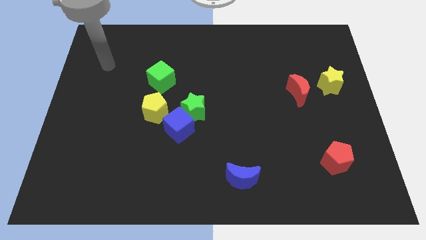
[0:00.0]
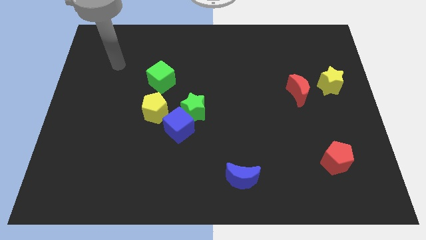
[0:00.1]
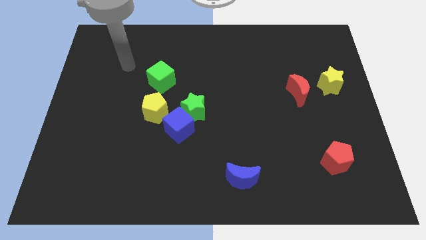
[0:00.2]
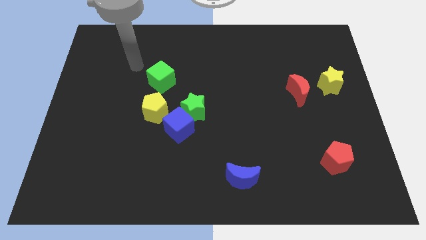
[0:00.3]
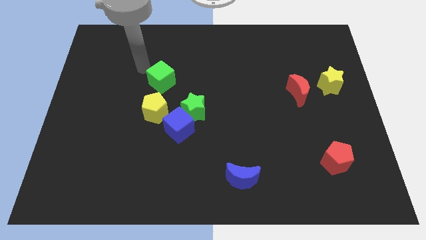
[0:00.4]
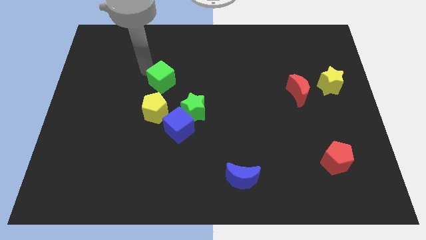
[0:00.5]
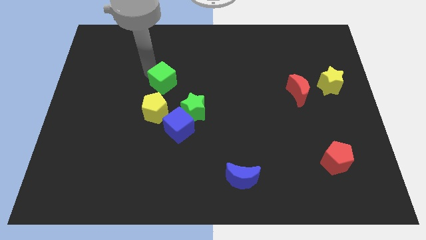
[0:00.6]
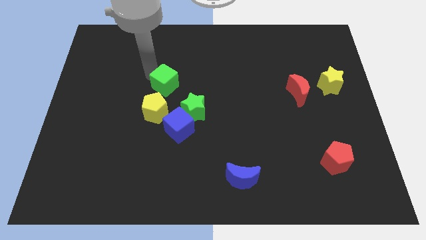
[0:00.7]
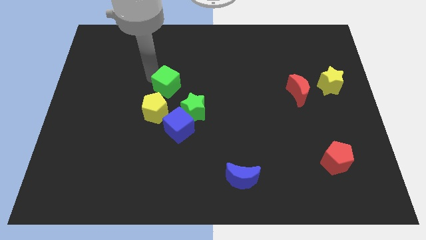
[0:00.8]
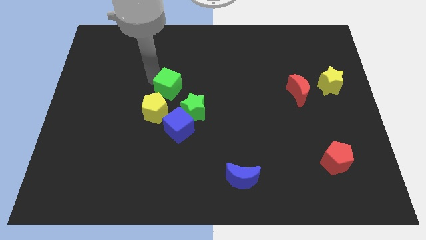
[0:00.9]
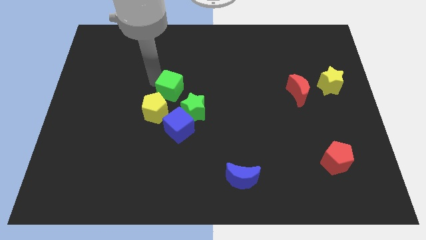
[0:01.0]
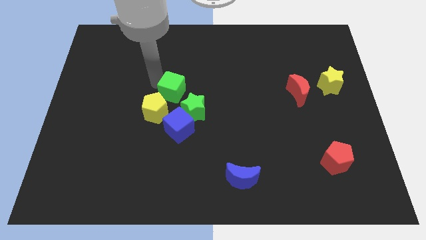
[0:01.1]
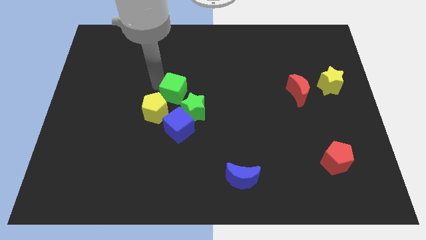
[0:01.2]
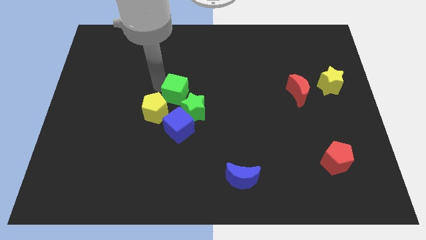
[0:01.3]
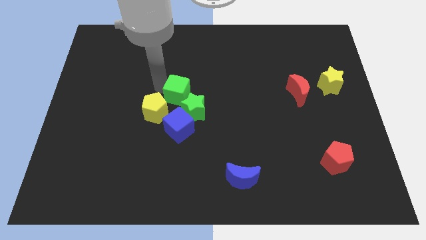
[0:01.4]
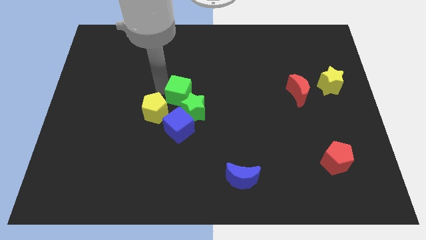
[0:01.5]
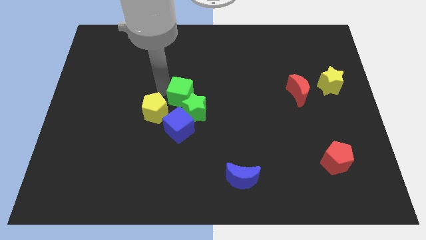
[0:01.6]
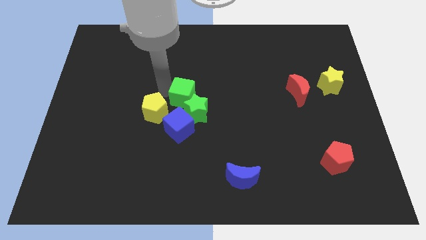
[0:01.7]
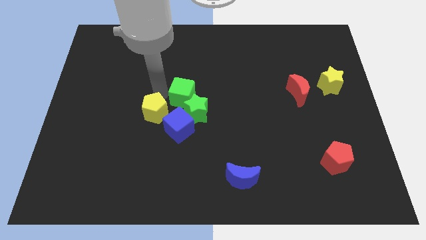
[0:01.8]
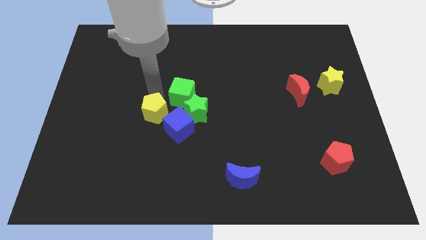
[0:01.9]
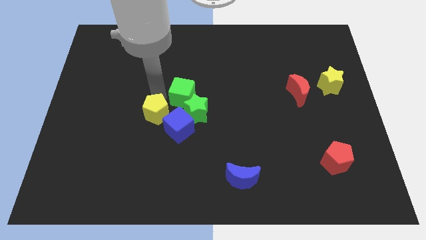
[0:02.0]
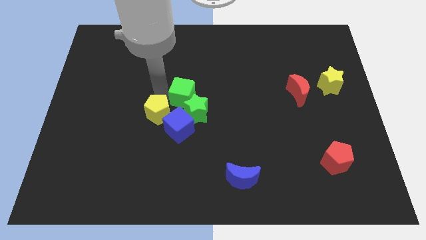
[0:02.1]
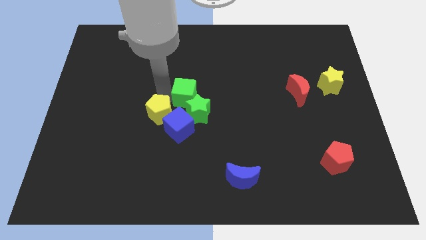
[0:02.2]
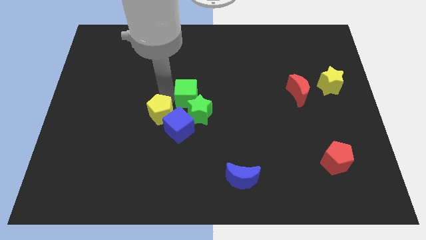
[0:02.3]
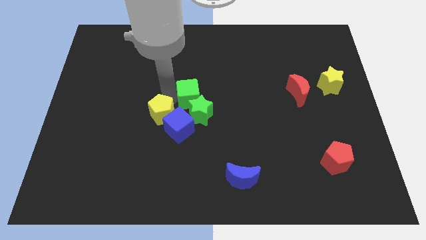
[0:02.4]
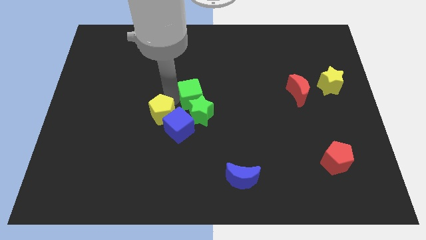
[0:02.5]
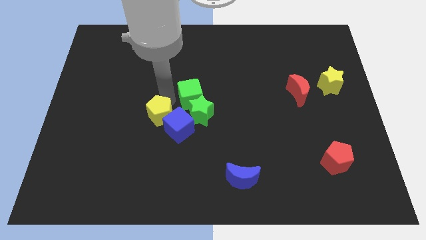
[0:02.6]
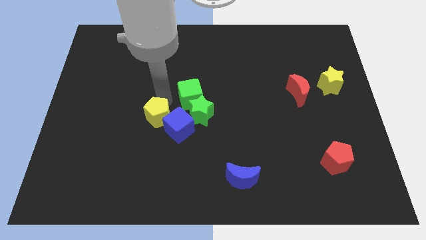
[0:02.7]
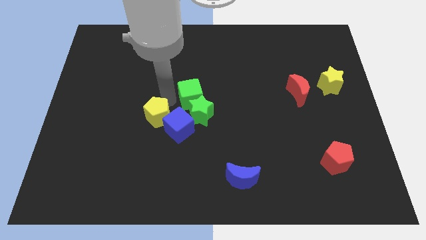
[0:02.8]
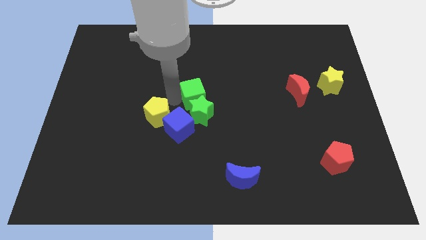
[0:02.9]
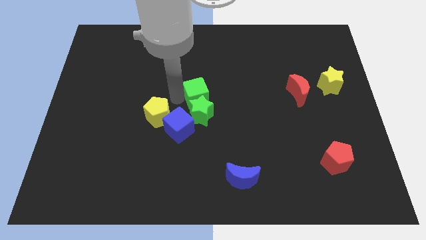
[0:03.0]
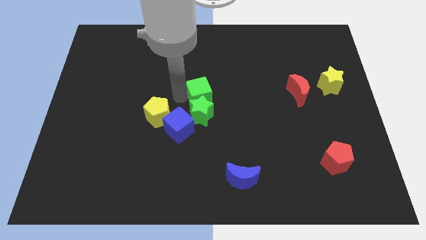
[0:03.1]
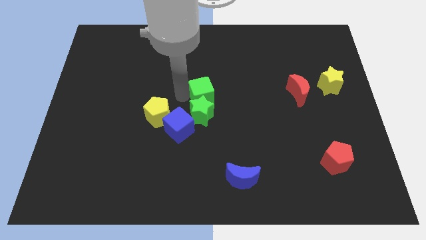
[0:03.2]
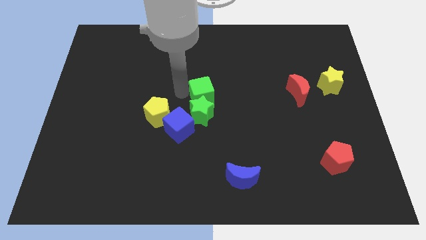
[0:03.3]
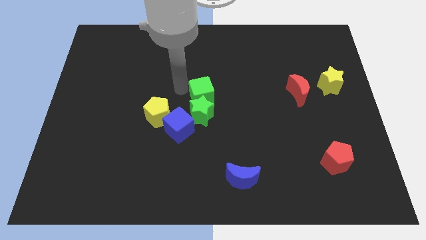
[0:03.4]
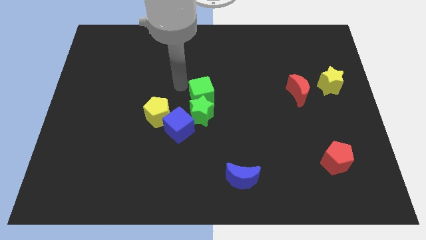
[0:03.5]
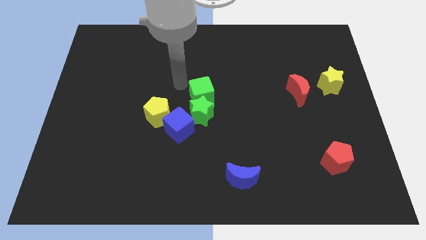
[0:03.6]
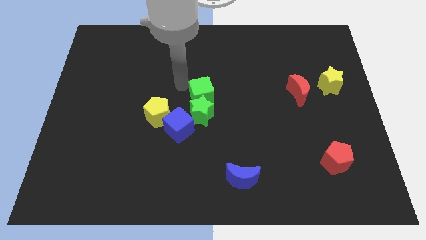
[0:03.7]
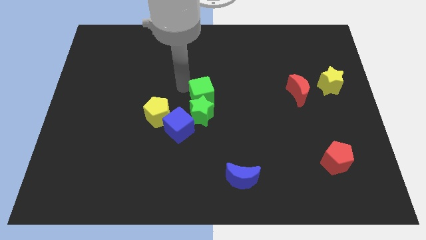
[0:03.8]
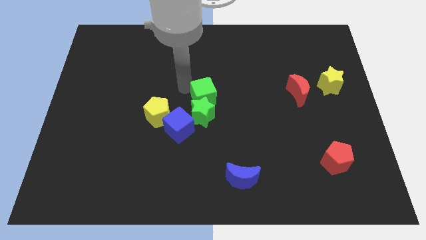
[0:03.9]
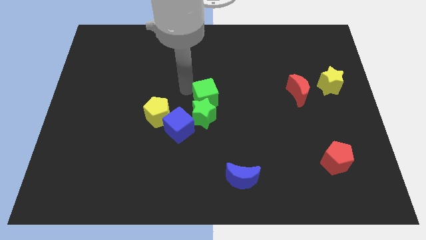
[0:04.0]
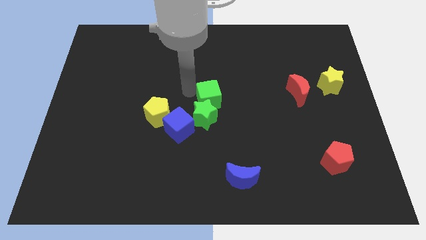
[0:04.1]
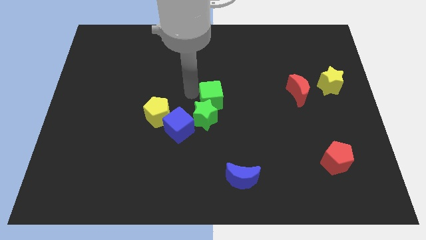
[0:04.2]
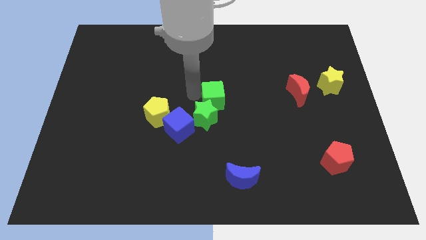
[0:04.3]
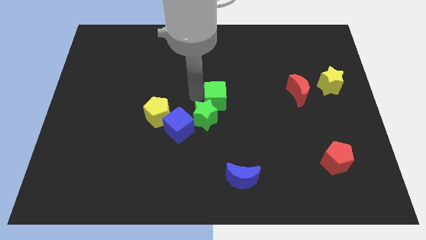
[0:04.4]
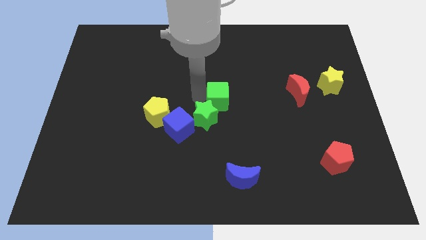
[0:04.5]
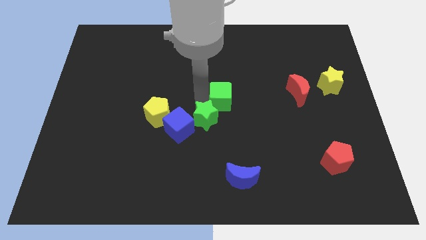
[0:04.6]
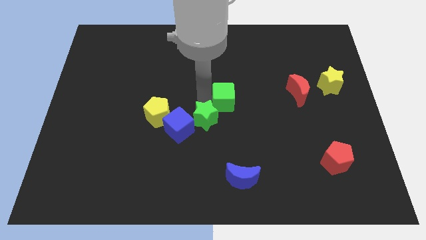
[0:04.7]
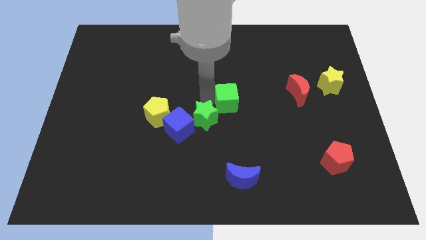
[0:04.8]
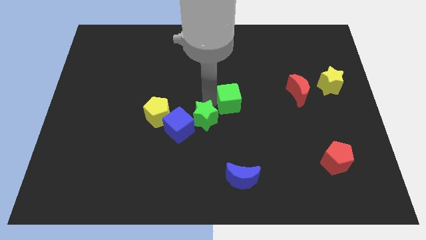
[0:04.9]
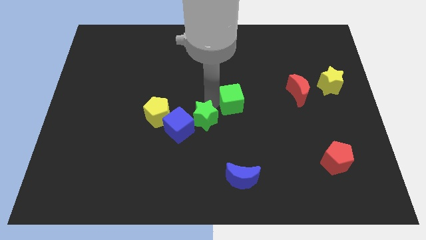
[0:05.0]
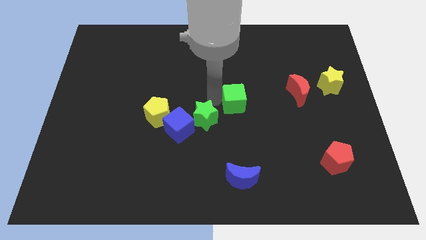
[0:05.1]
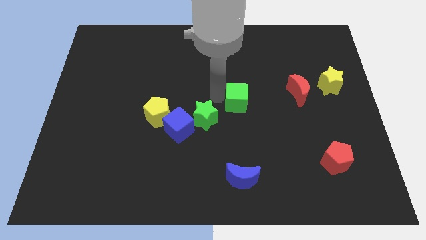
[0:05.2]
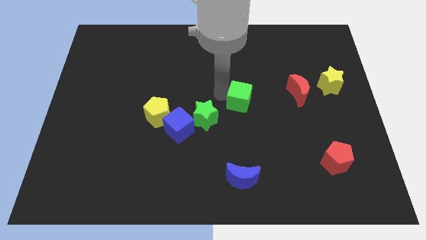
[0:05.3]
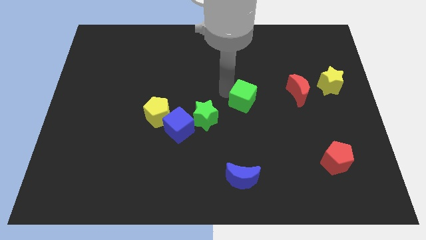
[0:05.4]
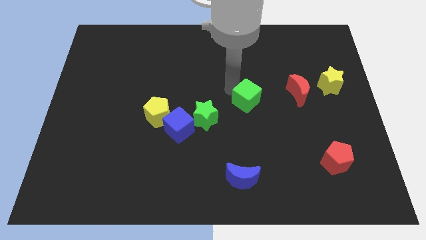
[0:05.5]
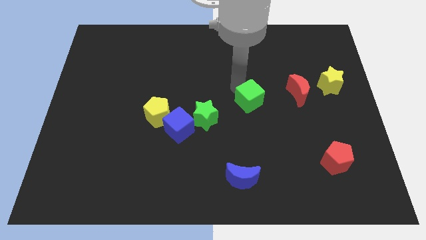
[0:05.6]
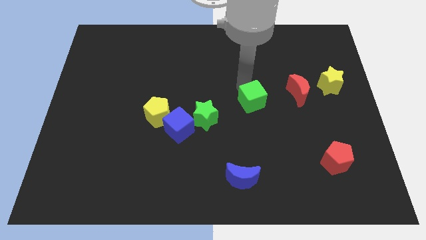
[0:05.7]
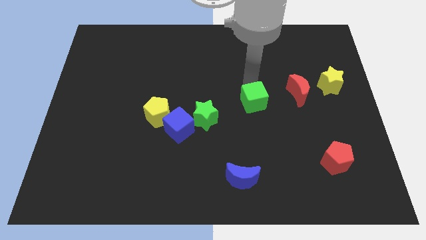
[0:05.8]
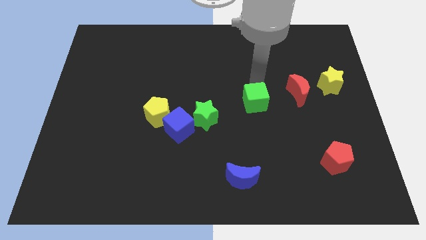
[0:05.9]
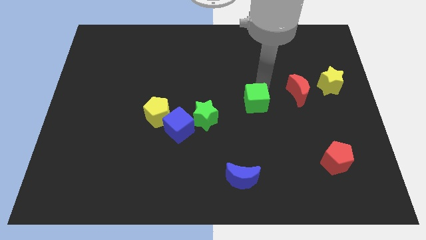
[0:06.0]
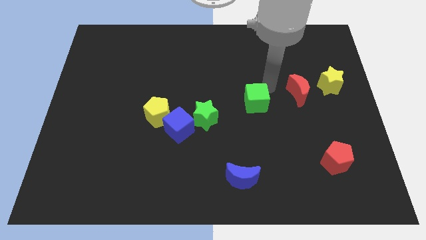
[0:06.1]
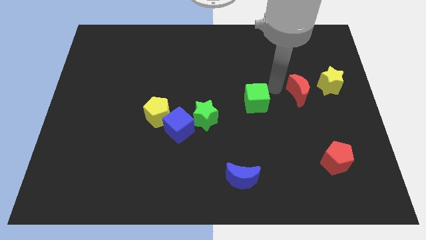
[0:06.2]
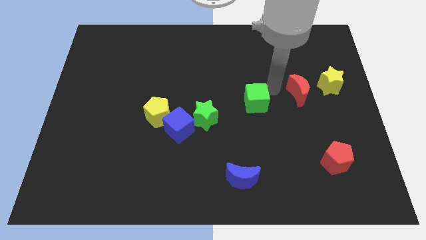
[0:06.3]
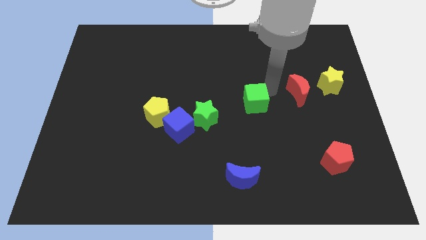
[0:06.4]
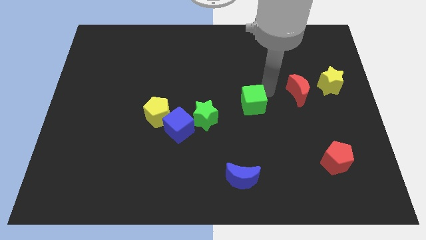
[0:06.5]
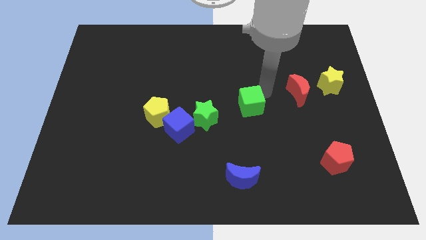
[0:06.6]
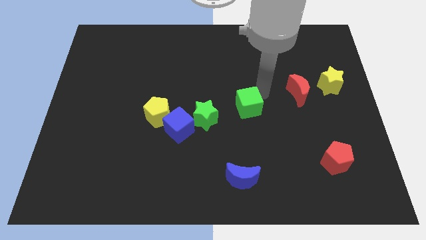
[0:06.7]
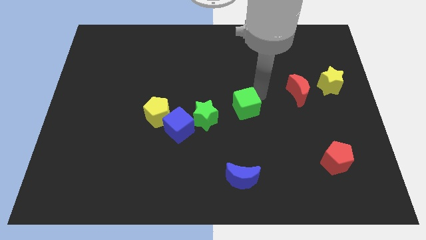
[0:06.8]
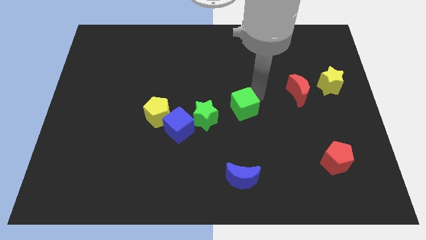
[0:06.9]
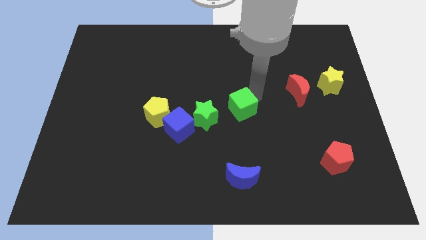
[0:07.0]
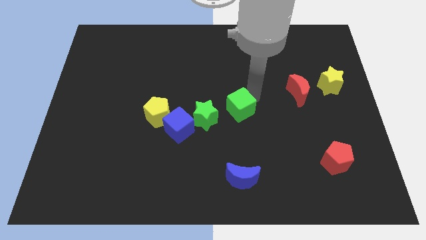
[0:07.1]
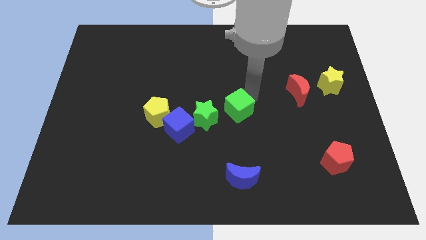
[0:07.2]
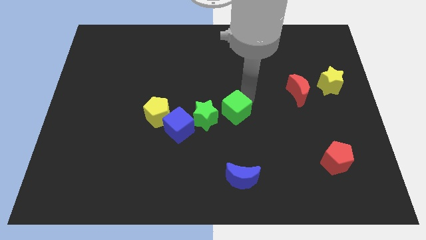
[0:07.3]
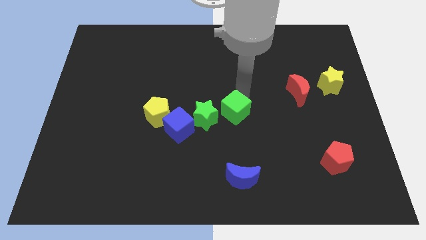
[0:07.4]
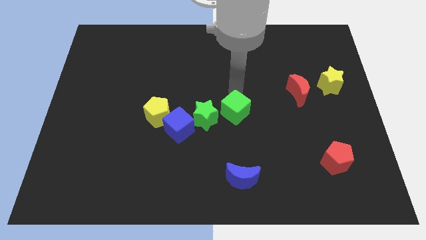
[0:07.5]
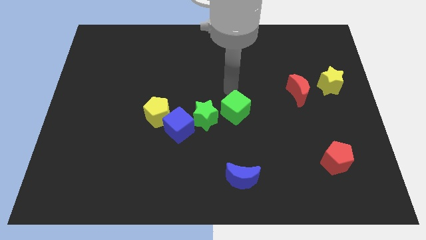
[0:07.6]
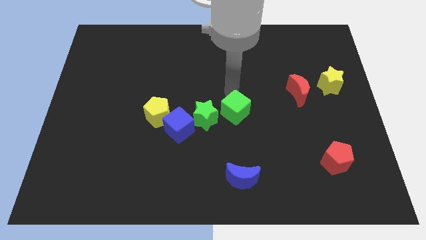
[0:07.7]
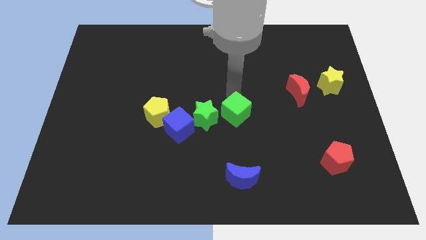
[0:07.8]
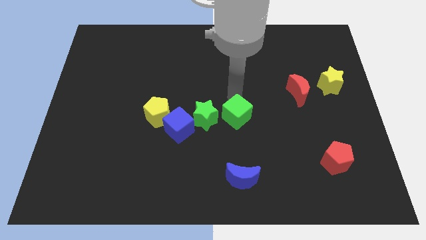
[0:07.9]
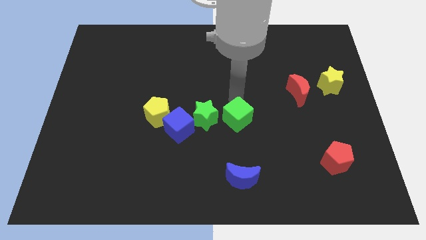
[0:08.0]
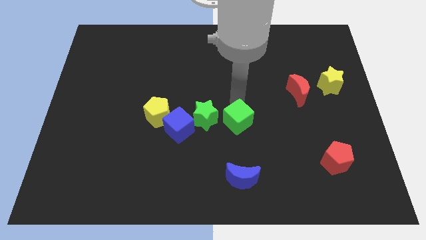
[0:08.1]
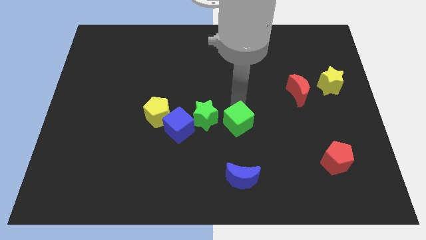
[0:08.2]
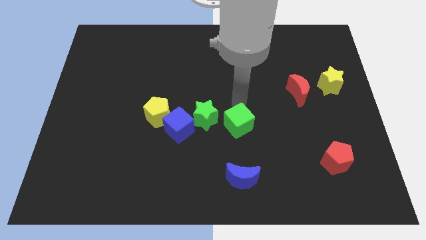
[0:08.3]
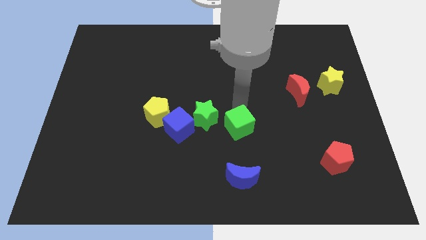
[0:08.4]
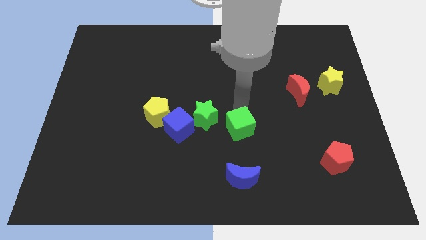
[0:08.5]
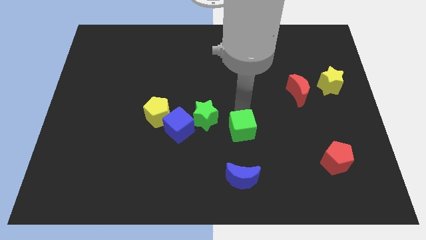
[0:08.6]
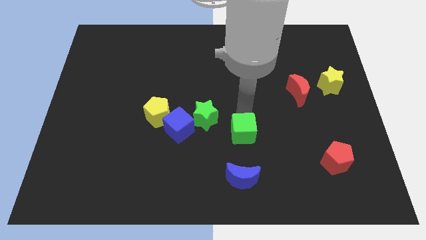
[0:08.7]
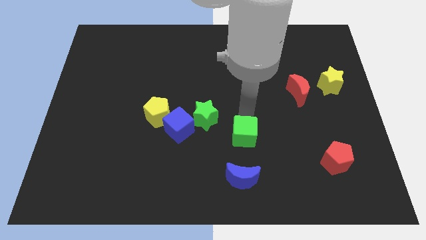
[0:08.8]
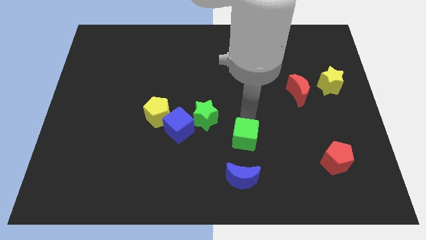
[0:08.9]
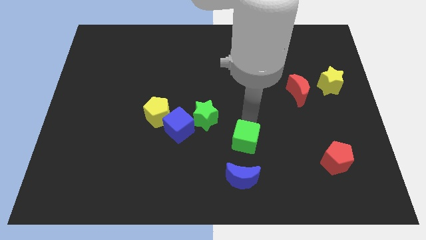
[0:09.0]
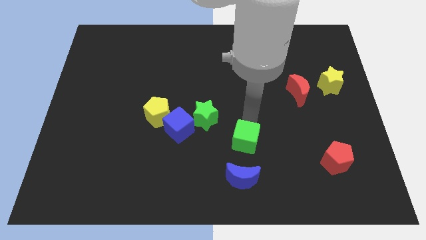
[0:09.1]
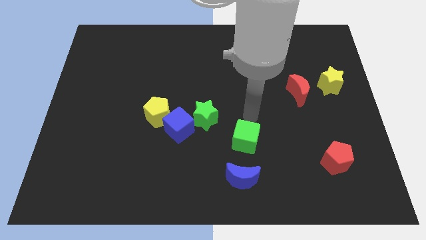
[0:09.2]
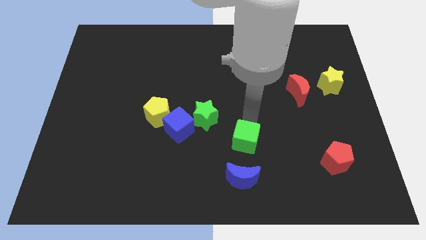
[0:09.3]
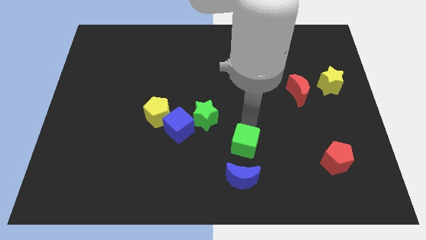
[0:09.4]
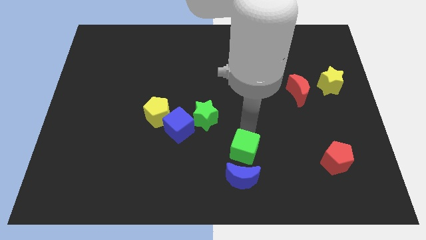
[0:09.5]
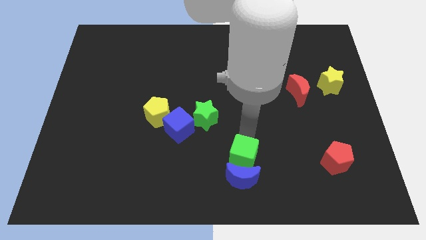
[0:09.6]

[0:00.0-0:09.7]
push the green cube towards the blue moon
